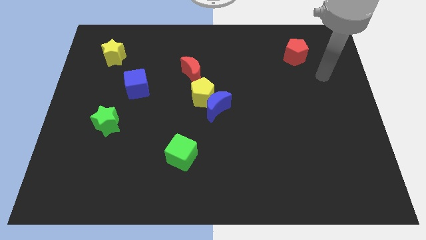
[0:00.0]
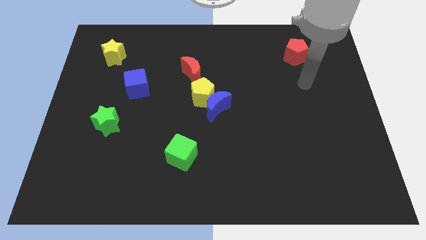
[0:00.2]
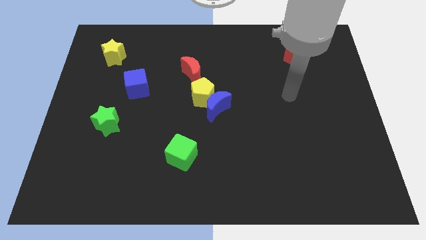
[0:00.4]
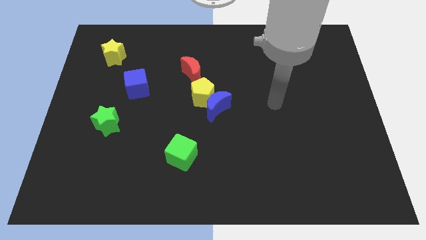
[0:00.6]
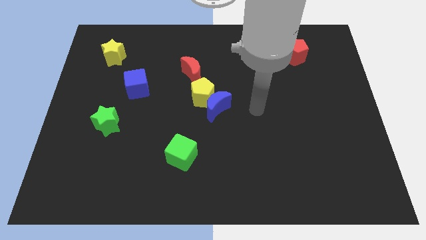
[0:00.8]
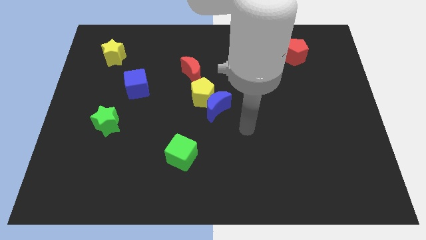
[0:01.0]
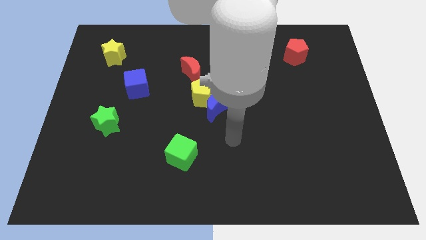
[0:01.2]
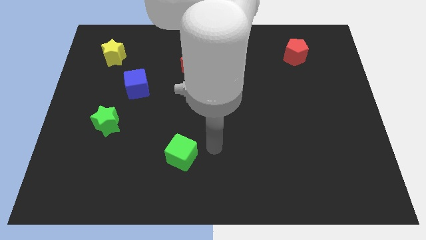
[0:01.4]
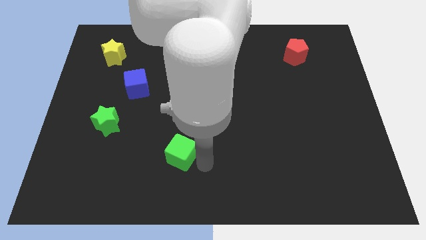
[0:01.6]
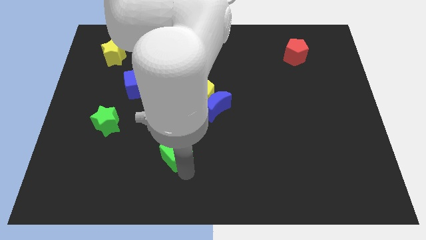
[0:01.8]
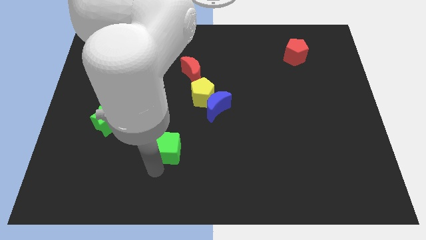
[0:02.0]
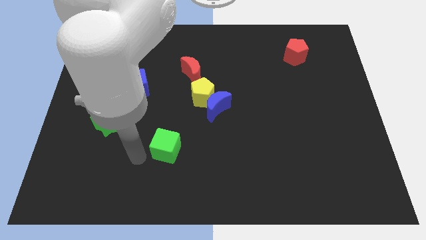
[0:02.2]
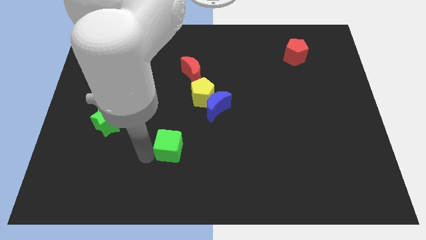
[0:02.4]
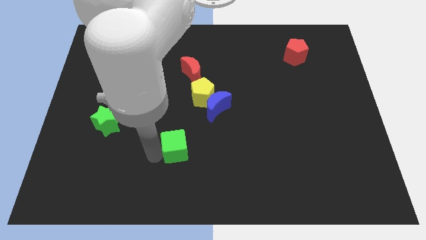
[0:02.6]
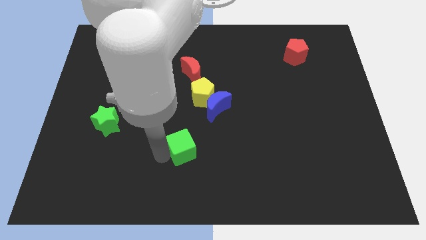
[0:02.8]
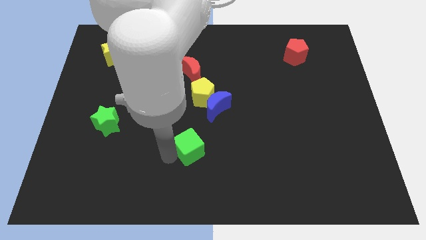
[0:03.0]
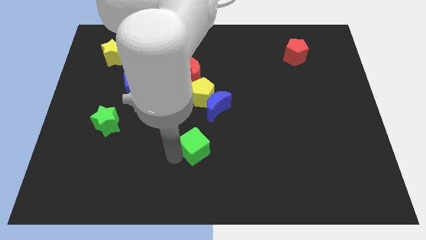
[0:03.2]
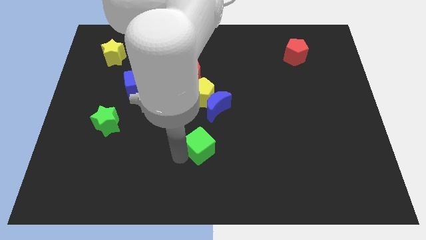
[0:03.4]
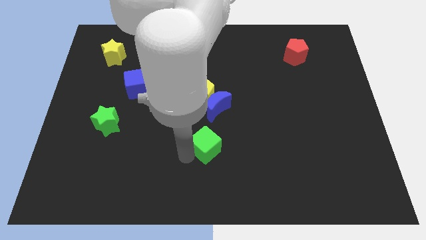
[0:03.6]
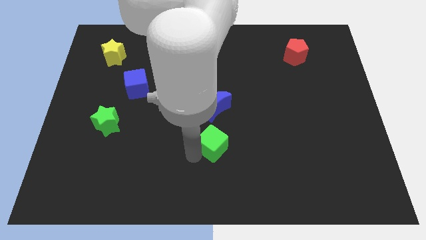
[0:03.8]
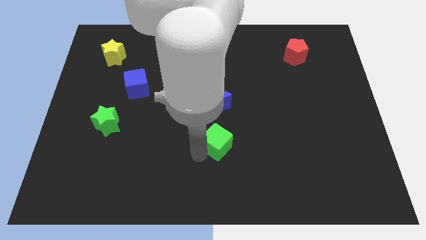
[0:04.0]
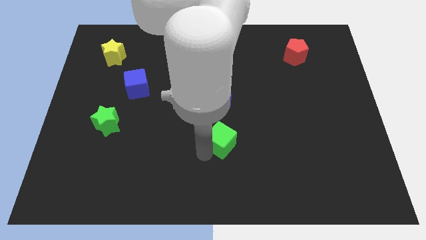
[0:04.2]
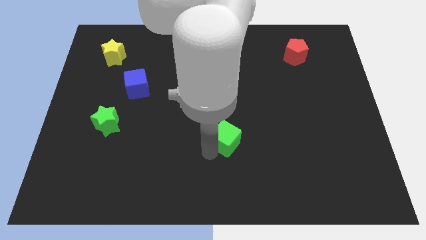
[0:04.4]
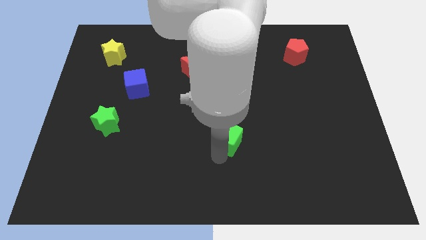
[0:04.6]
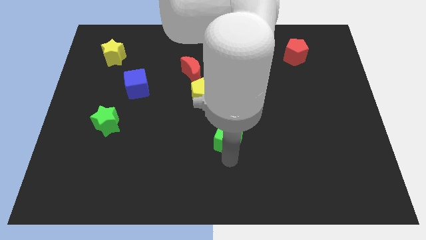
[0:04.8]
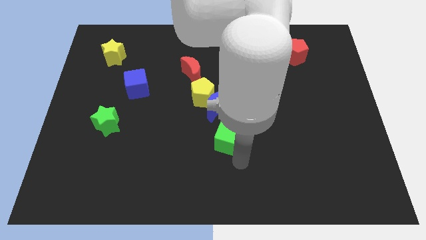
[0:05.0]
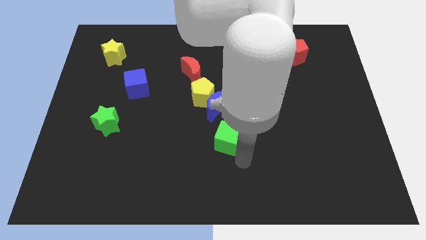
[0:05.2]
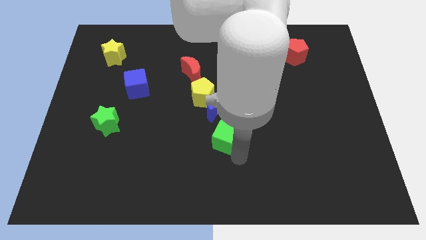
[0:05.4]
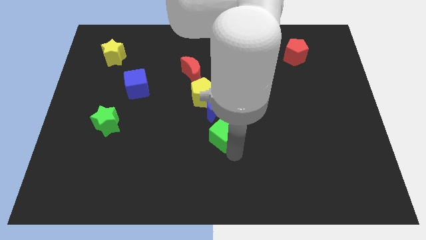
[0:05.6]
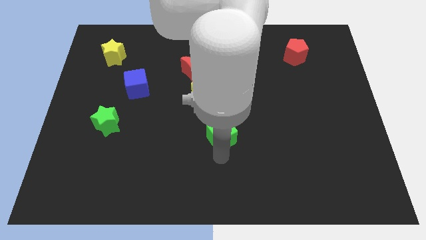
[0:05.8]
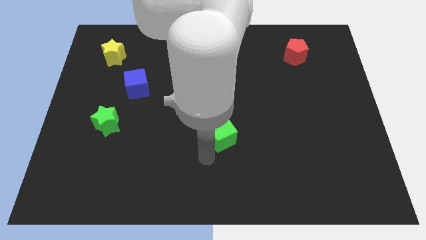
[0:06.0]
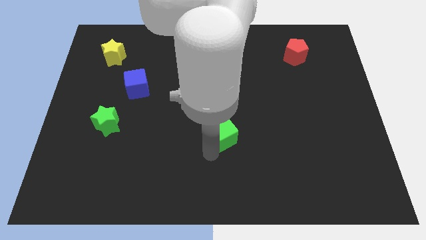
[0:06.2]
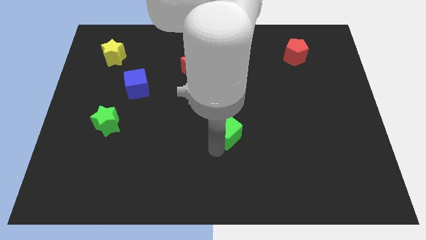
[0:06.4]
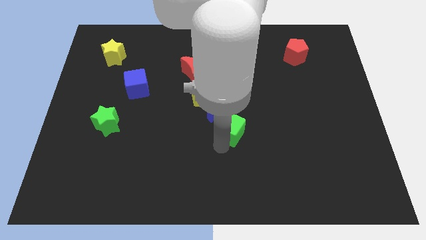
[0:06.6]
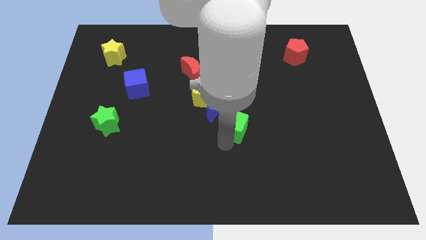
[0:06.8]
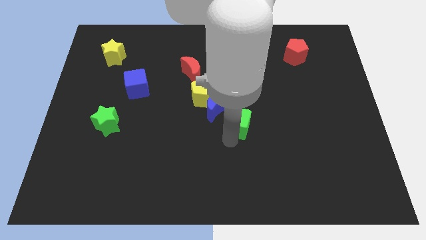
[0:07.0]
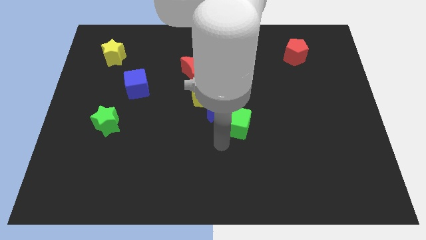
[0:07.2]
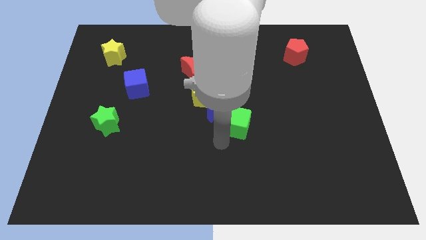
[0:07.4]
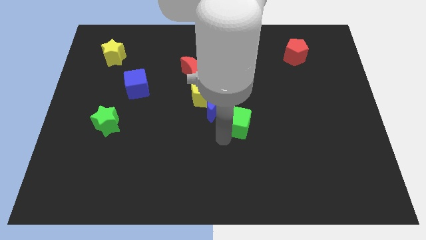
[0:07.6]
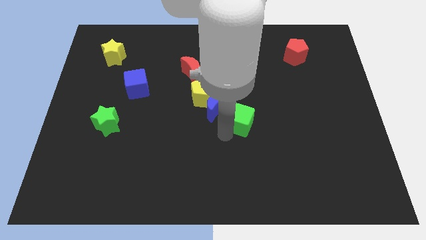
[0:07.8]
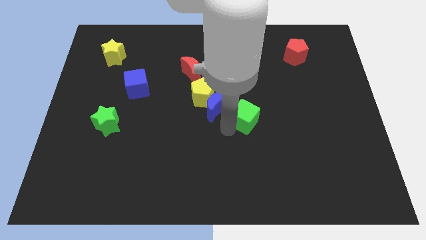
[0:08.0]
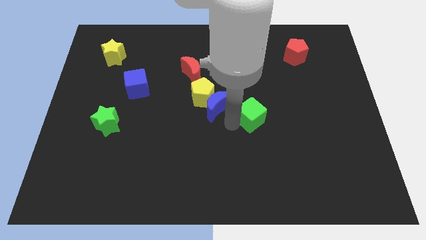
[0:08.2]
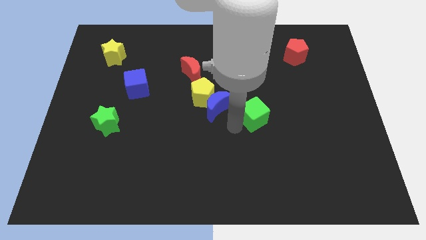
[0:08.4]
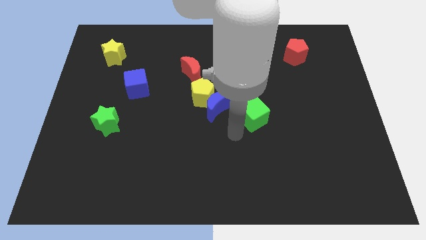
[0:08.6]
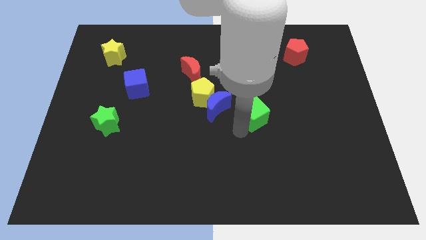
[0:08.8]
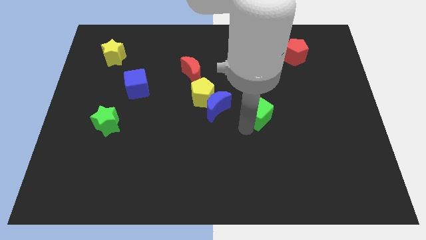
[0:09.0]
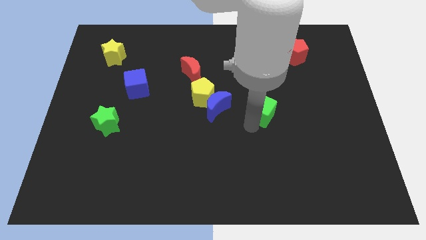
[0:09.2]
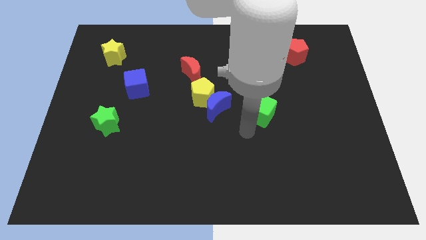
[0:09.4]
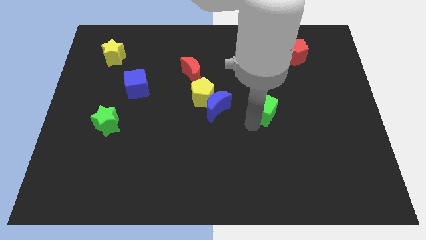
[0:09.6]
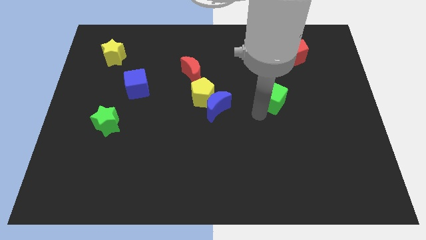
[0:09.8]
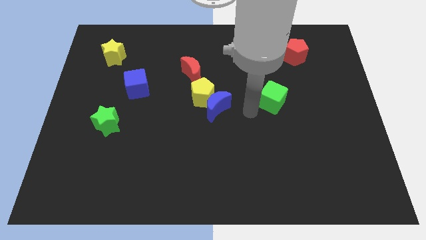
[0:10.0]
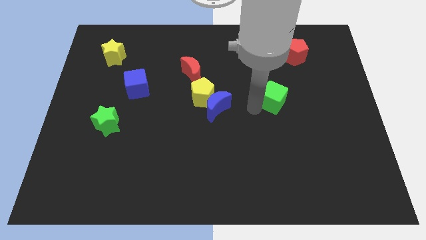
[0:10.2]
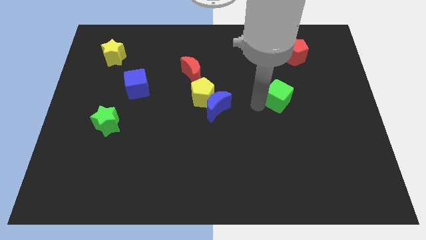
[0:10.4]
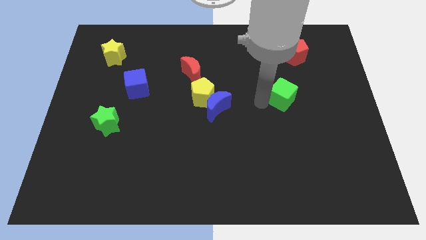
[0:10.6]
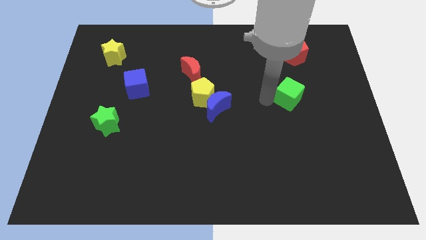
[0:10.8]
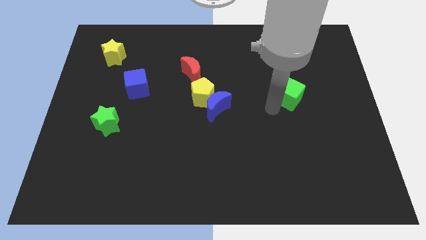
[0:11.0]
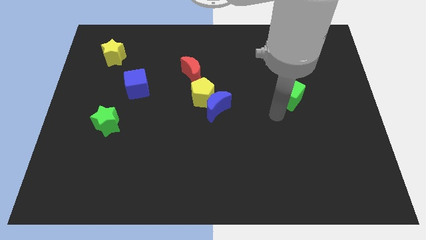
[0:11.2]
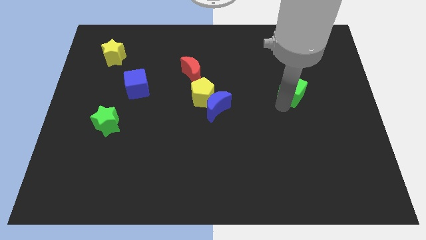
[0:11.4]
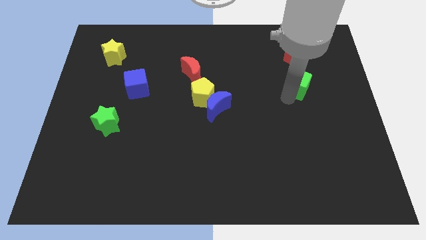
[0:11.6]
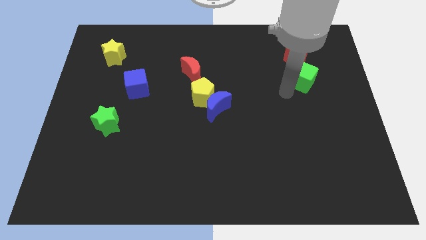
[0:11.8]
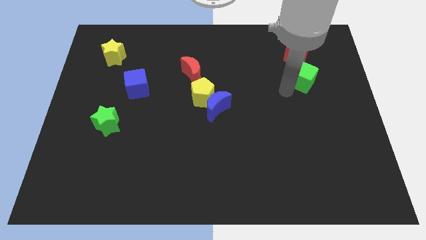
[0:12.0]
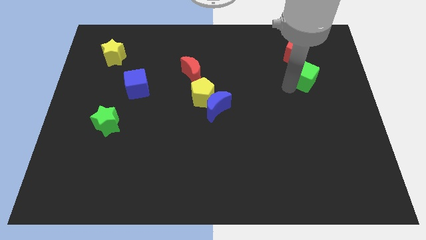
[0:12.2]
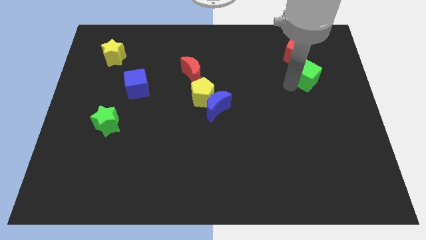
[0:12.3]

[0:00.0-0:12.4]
push the green cube to the bottom right of the red pentagon

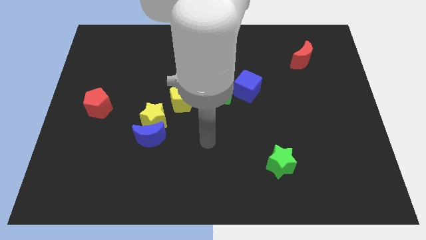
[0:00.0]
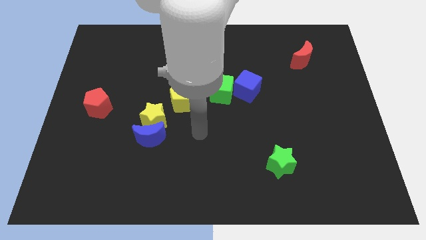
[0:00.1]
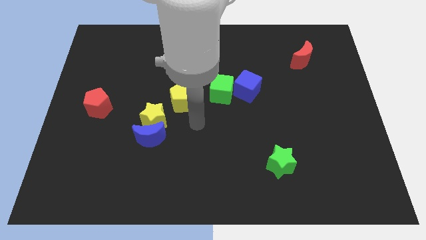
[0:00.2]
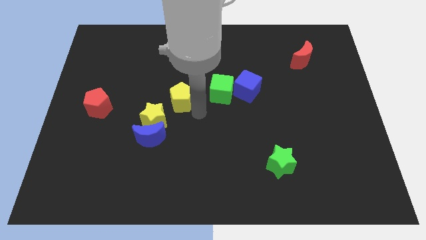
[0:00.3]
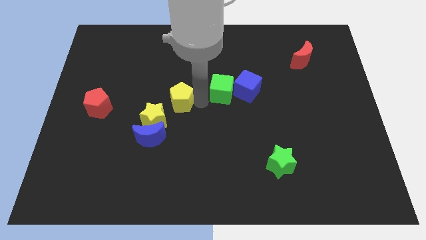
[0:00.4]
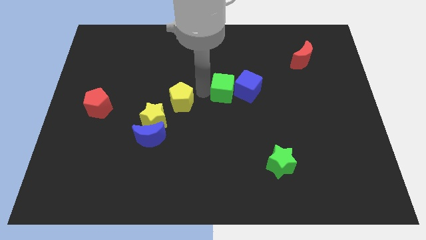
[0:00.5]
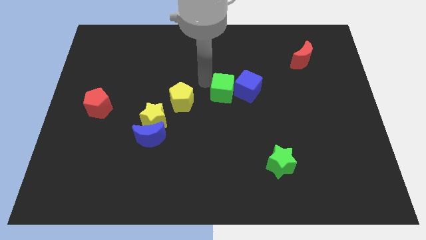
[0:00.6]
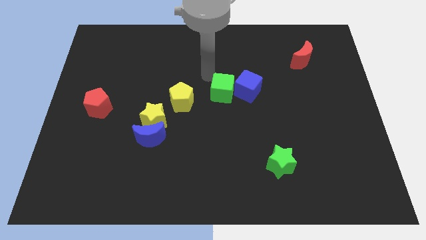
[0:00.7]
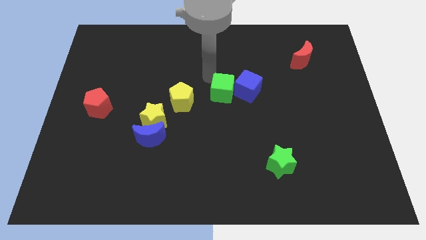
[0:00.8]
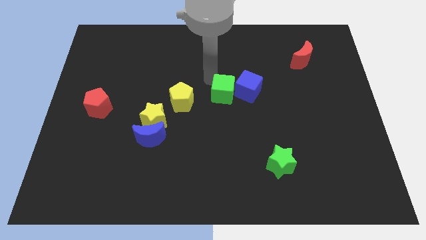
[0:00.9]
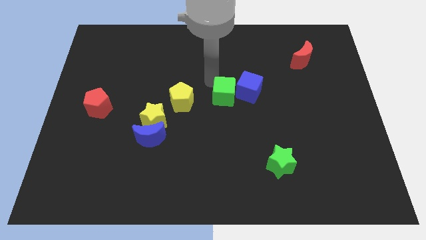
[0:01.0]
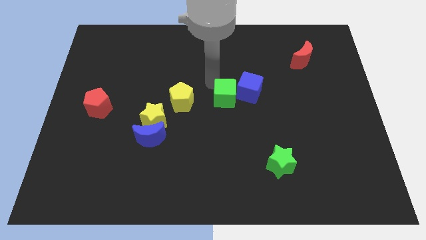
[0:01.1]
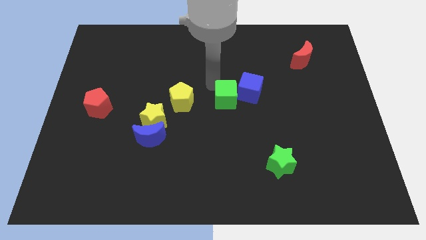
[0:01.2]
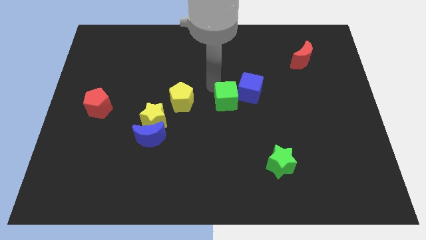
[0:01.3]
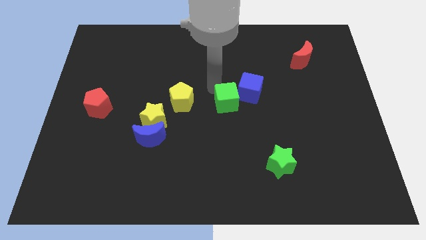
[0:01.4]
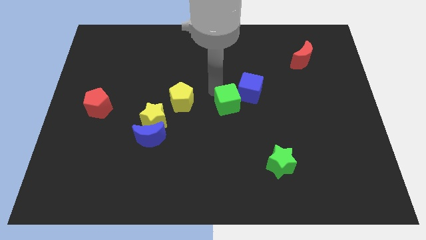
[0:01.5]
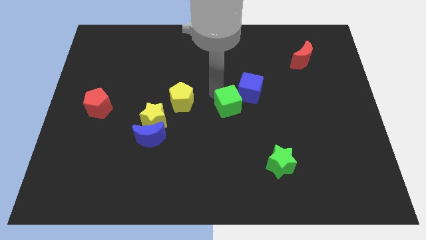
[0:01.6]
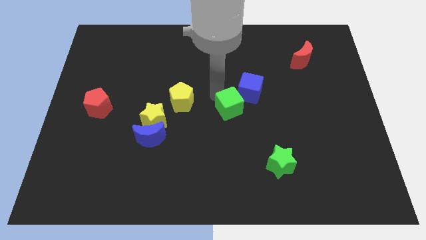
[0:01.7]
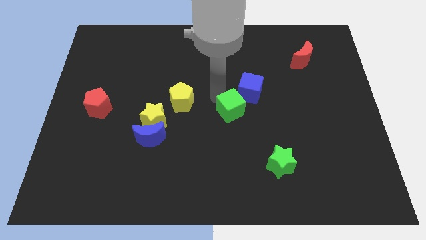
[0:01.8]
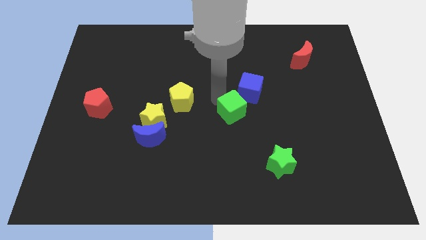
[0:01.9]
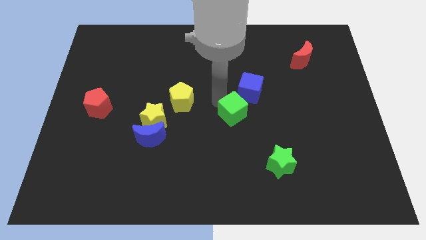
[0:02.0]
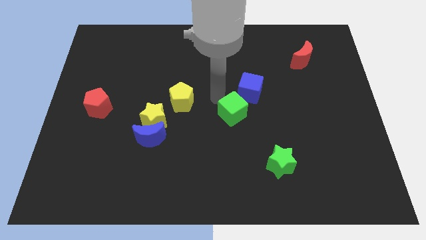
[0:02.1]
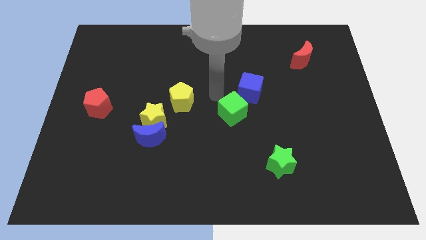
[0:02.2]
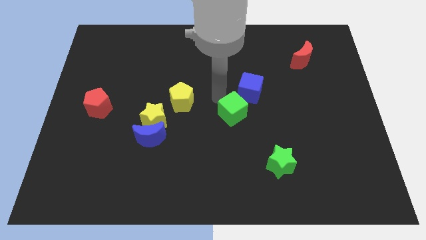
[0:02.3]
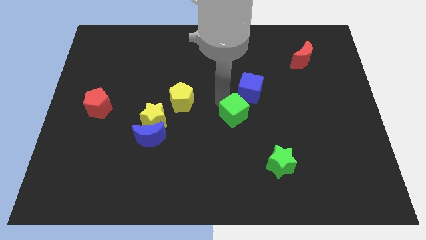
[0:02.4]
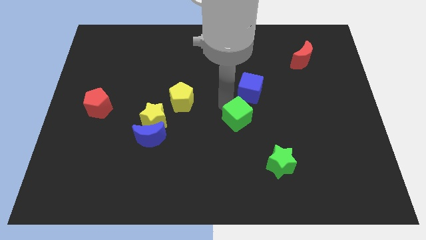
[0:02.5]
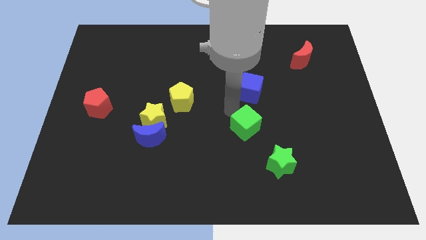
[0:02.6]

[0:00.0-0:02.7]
move the green cube to the top left side of the green star
